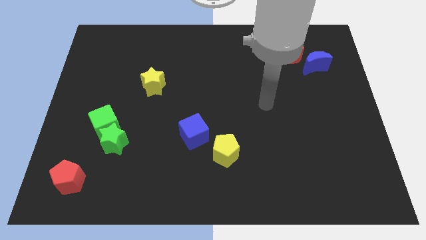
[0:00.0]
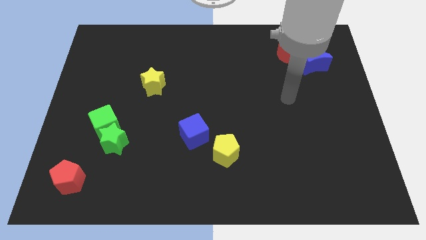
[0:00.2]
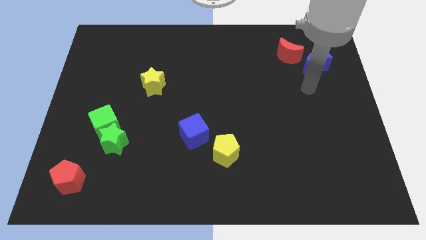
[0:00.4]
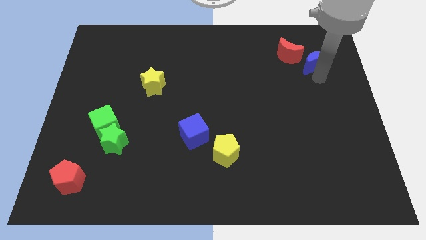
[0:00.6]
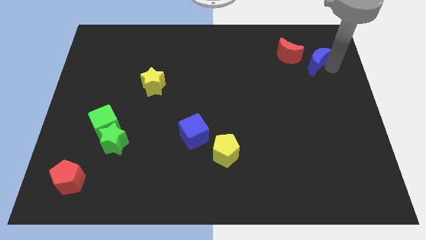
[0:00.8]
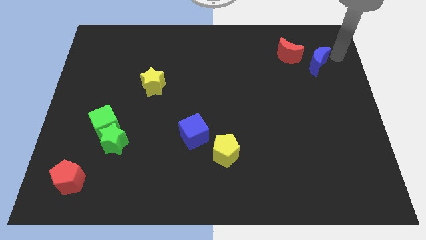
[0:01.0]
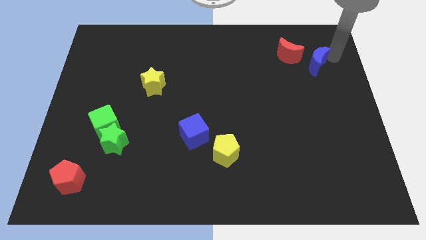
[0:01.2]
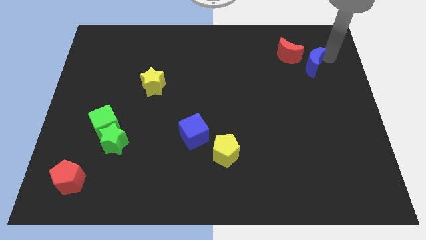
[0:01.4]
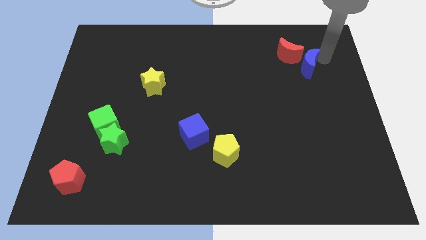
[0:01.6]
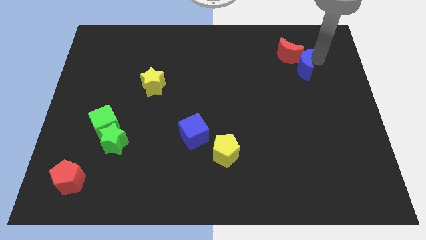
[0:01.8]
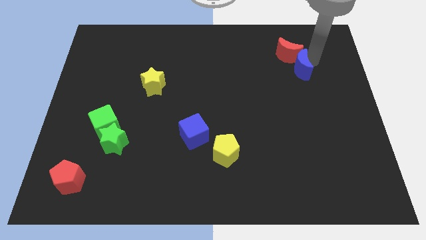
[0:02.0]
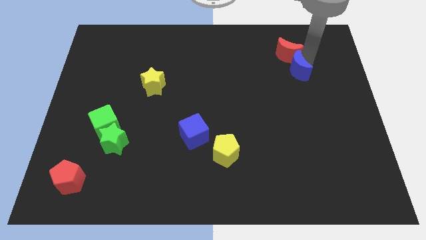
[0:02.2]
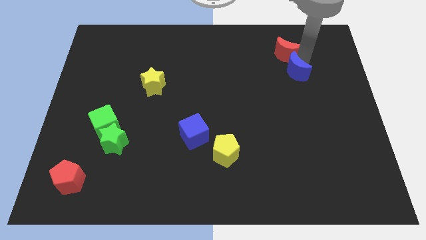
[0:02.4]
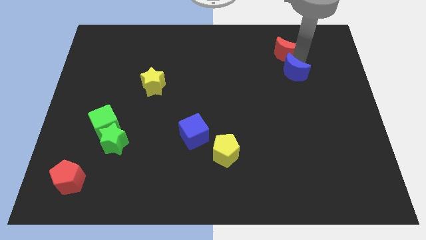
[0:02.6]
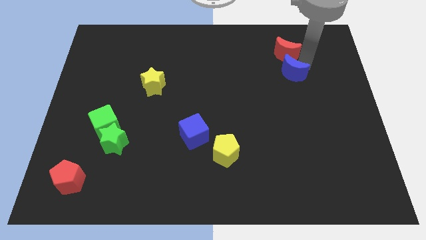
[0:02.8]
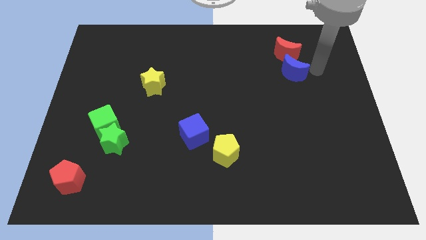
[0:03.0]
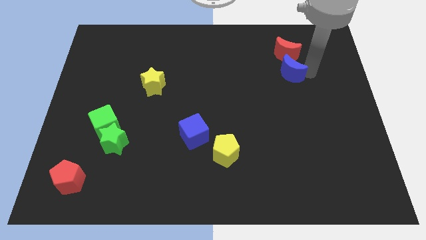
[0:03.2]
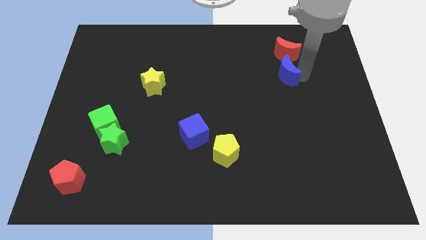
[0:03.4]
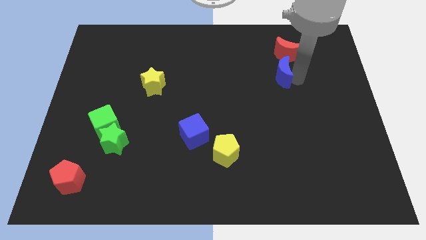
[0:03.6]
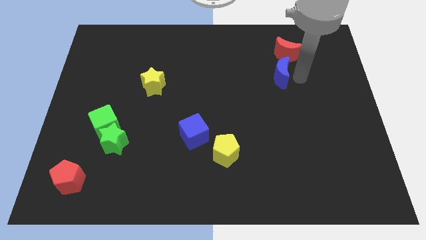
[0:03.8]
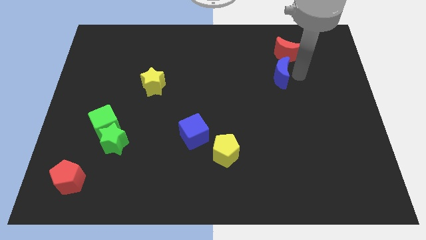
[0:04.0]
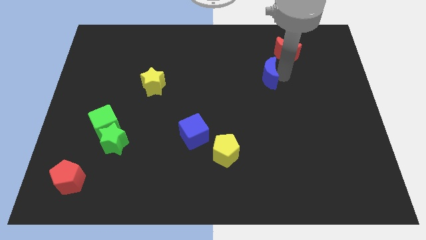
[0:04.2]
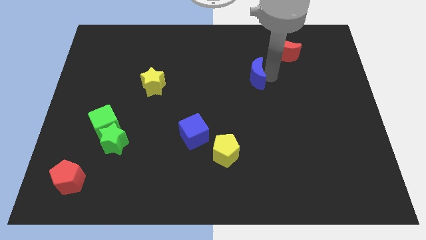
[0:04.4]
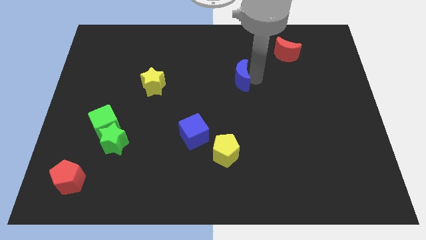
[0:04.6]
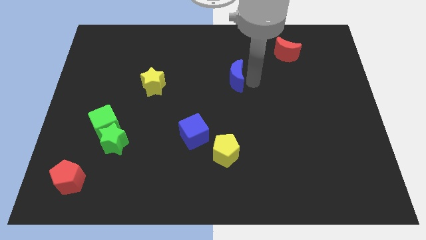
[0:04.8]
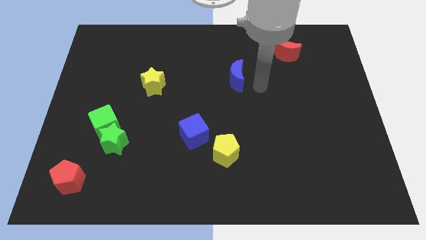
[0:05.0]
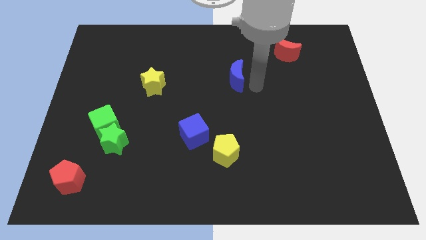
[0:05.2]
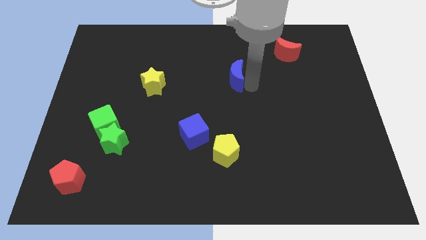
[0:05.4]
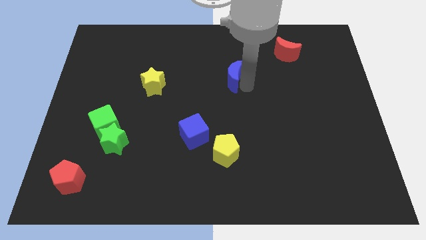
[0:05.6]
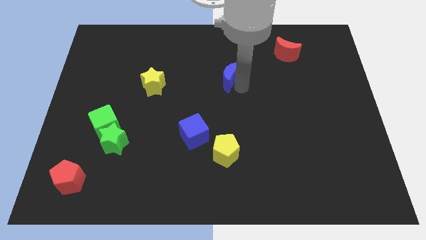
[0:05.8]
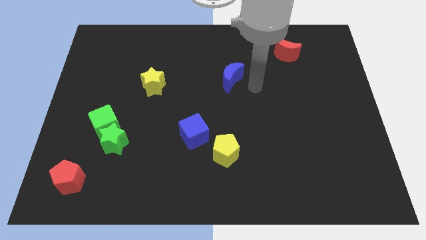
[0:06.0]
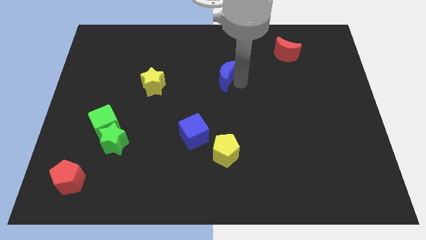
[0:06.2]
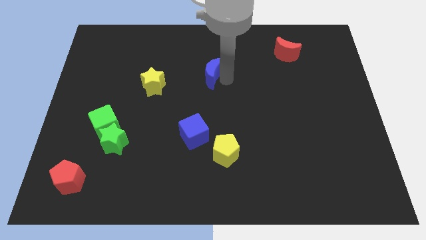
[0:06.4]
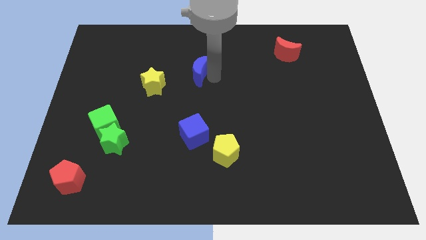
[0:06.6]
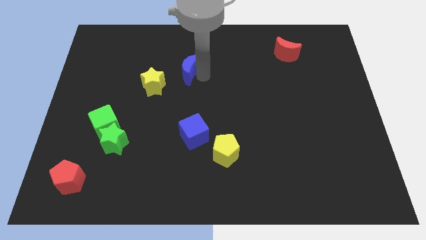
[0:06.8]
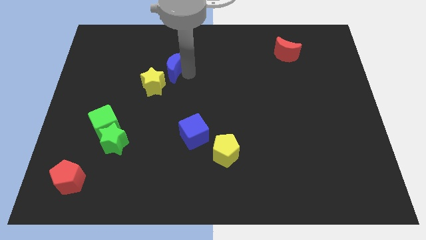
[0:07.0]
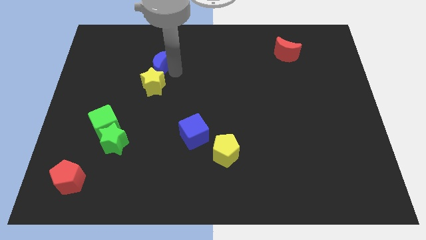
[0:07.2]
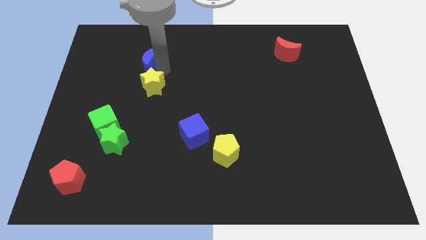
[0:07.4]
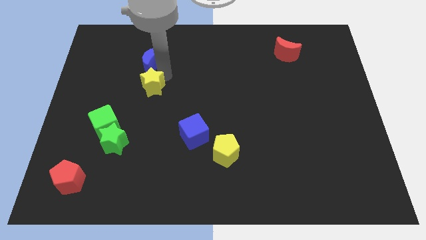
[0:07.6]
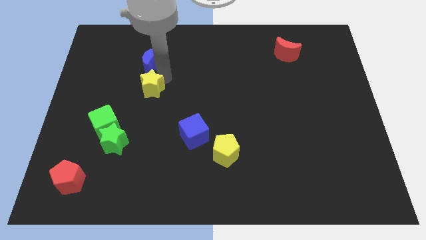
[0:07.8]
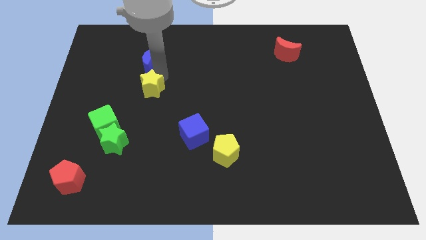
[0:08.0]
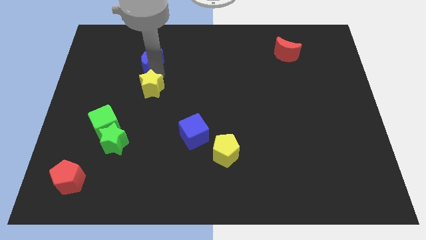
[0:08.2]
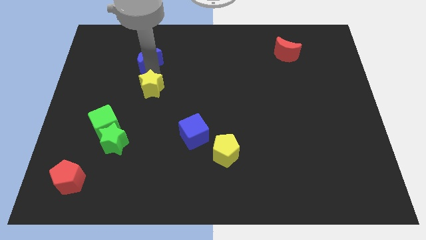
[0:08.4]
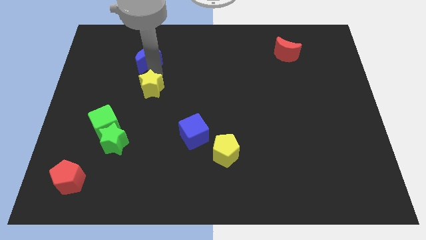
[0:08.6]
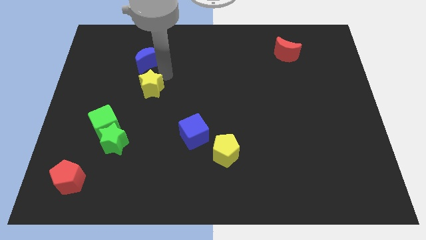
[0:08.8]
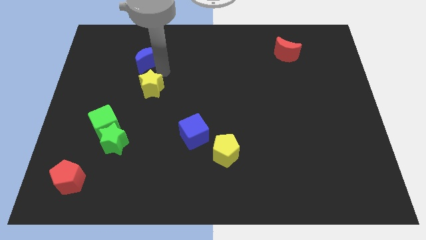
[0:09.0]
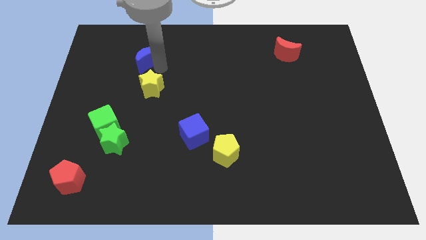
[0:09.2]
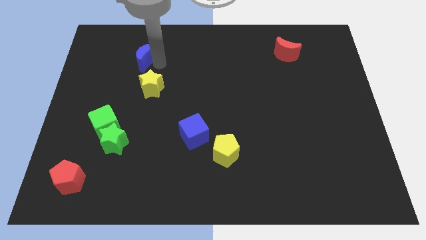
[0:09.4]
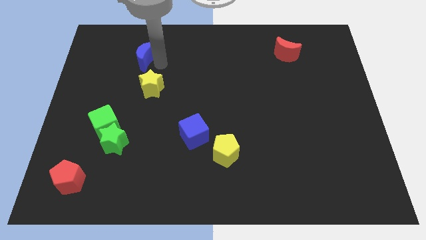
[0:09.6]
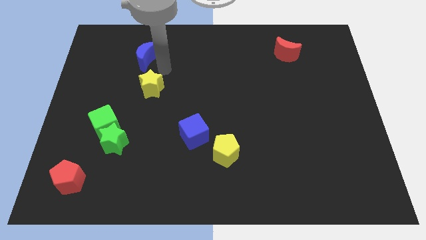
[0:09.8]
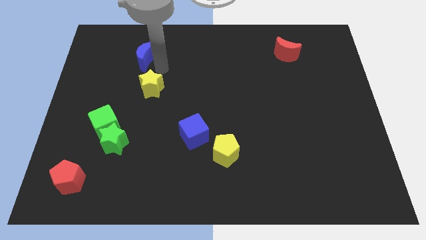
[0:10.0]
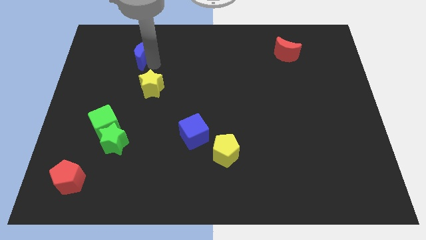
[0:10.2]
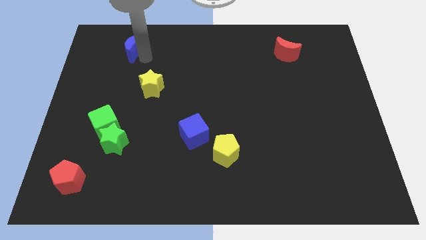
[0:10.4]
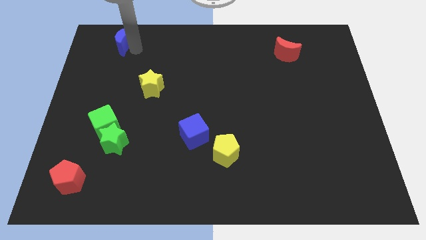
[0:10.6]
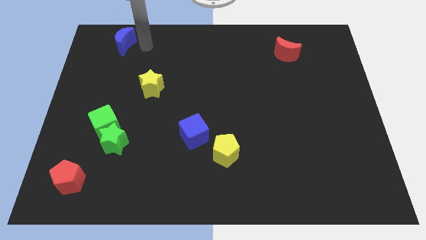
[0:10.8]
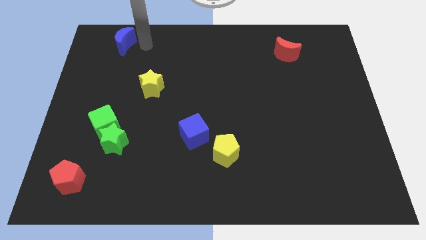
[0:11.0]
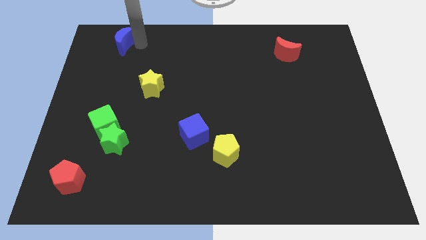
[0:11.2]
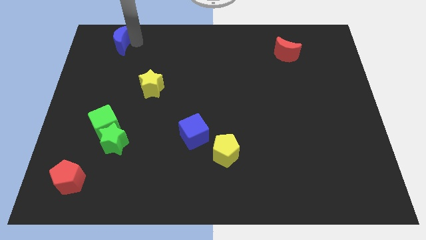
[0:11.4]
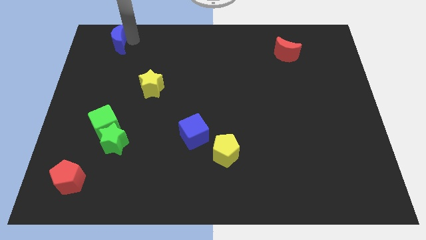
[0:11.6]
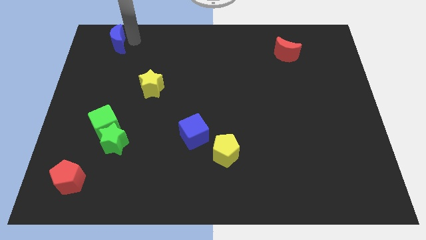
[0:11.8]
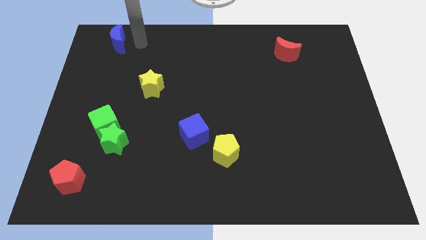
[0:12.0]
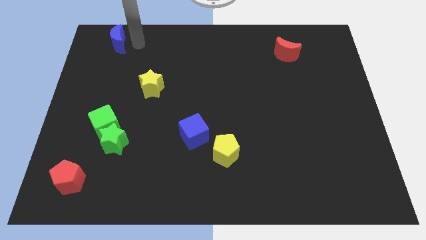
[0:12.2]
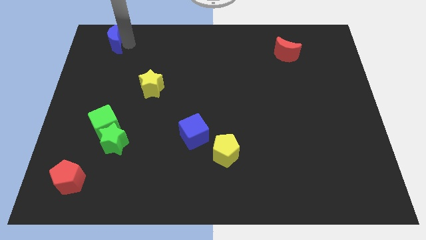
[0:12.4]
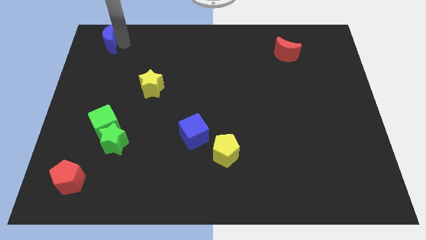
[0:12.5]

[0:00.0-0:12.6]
slide the blue moon to the top left of the board
